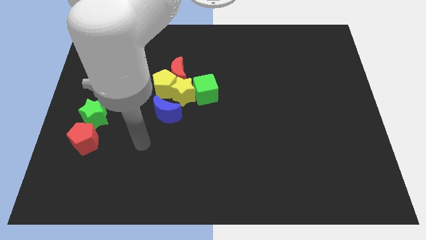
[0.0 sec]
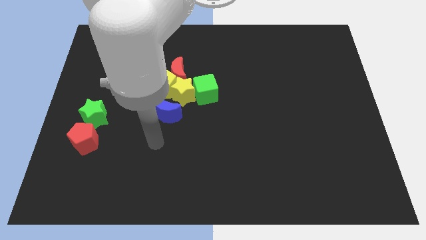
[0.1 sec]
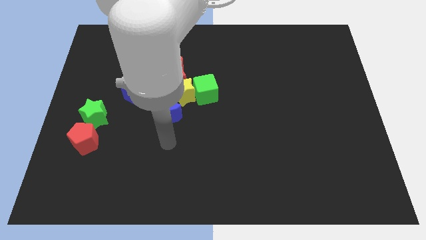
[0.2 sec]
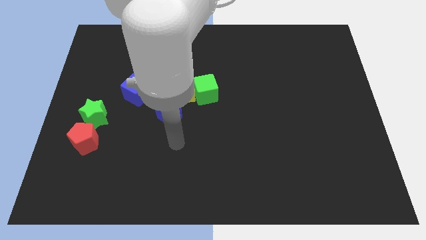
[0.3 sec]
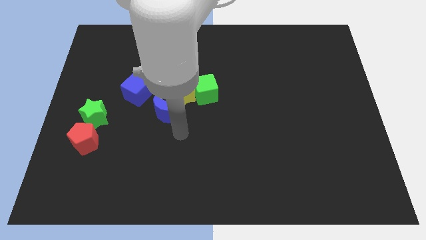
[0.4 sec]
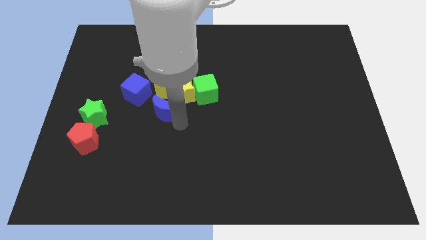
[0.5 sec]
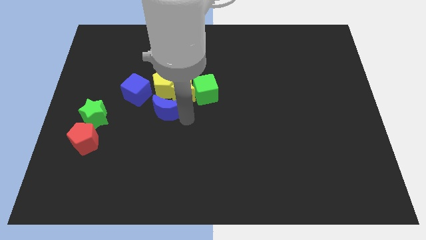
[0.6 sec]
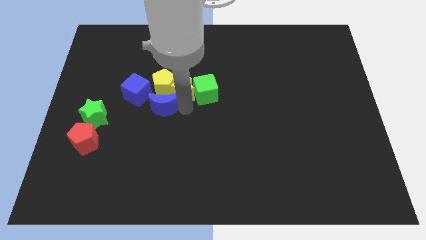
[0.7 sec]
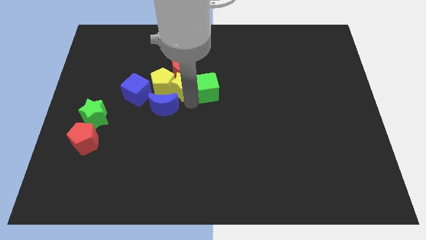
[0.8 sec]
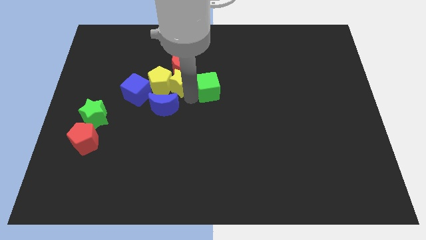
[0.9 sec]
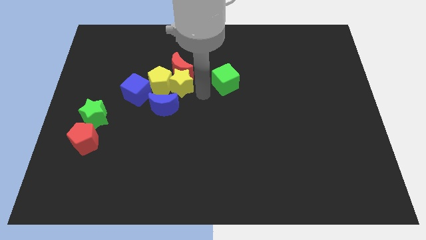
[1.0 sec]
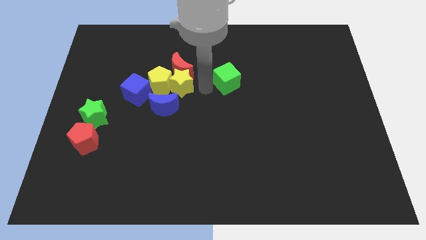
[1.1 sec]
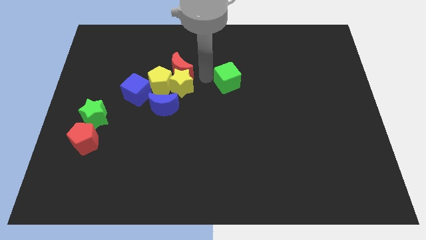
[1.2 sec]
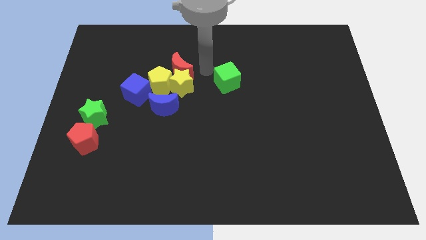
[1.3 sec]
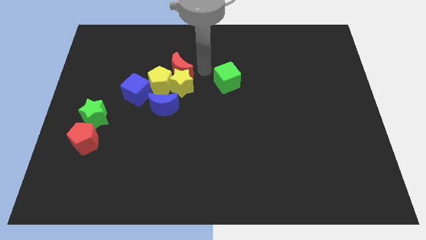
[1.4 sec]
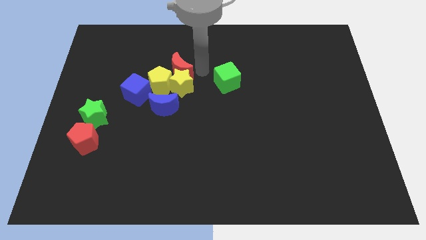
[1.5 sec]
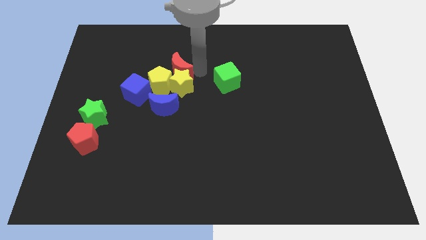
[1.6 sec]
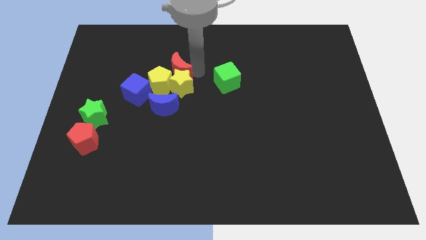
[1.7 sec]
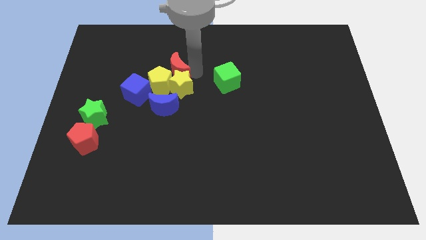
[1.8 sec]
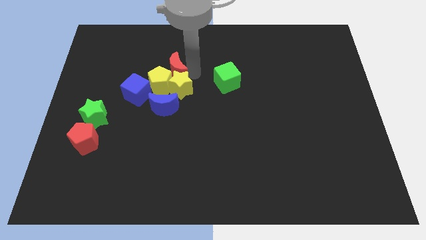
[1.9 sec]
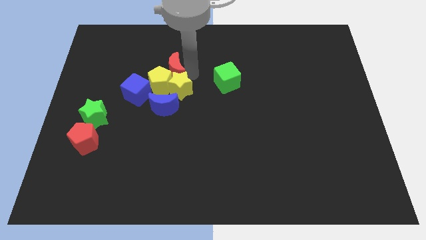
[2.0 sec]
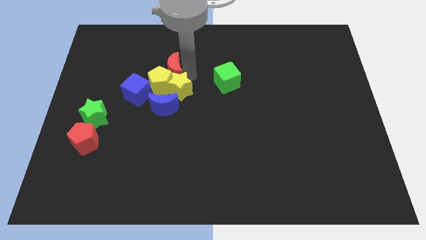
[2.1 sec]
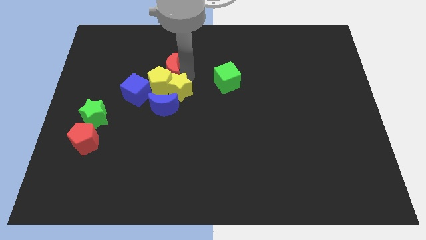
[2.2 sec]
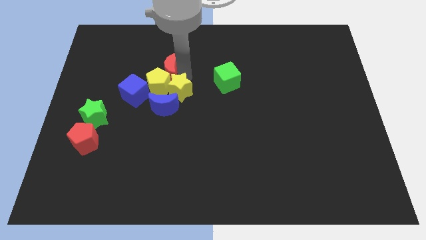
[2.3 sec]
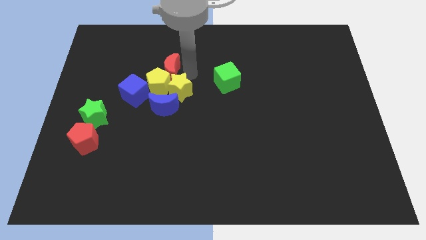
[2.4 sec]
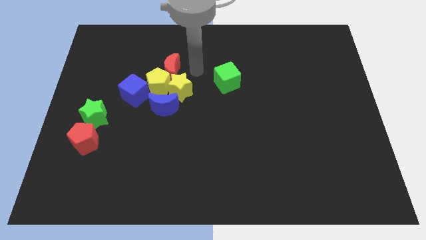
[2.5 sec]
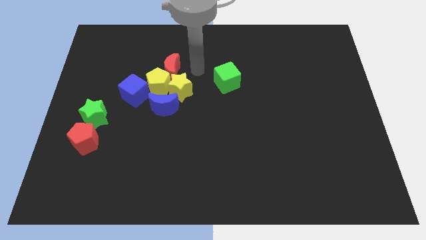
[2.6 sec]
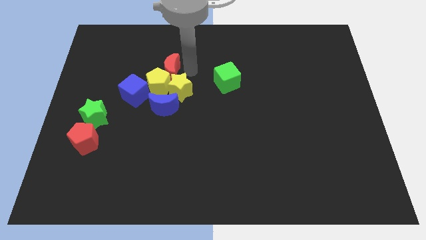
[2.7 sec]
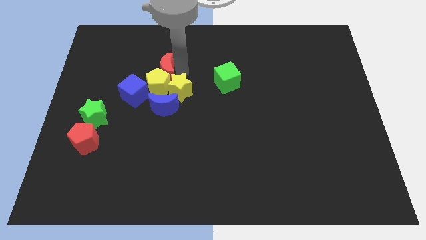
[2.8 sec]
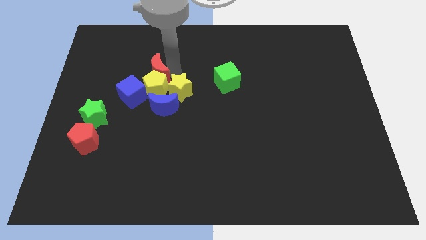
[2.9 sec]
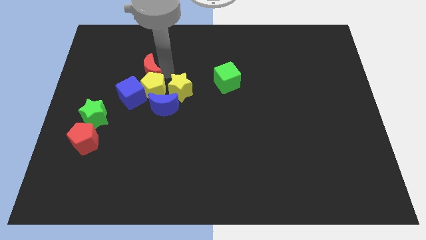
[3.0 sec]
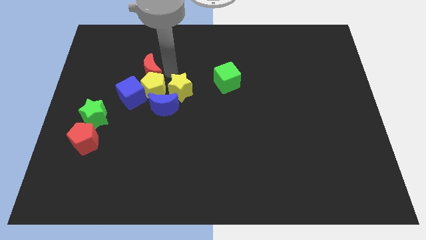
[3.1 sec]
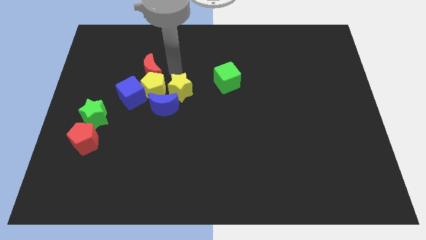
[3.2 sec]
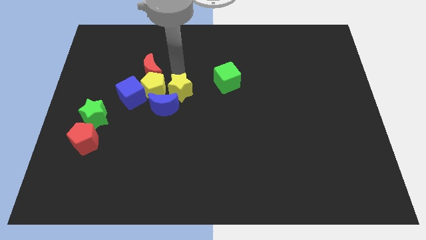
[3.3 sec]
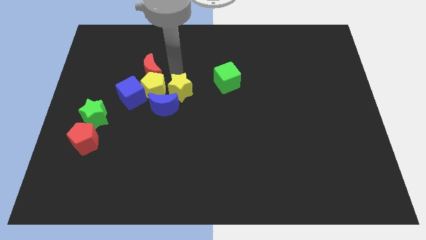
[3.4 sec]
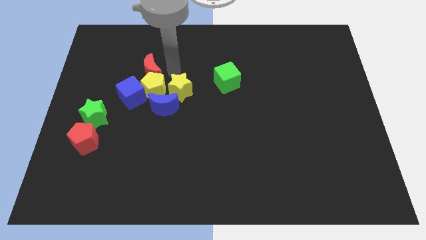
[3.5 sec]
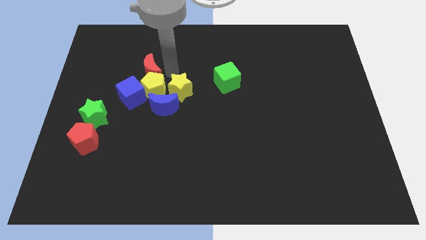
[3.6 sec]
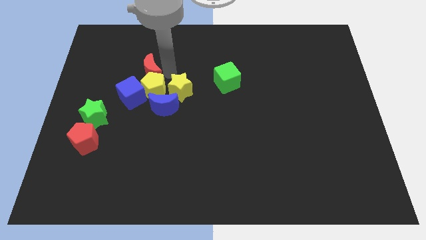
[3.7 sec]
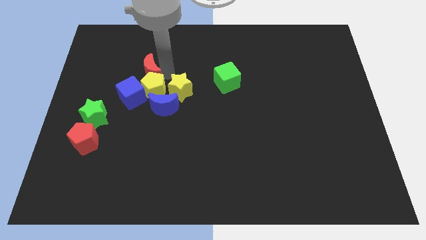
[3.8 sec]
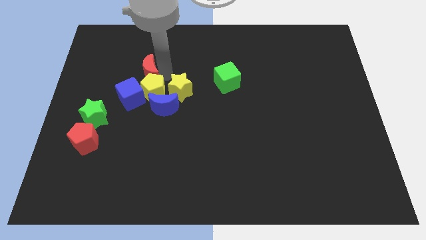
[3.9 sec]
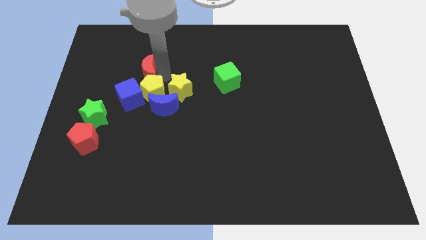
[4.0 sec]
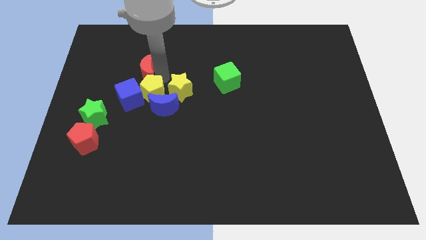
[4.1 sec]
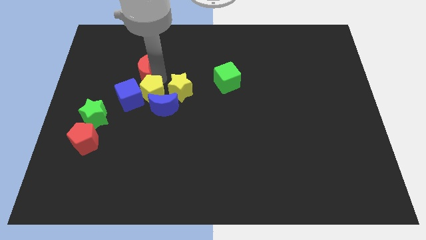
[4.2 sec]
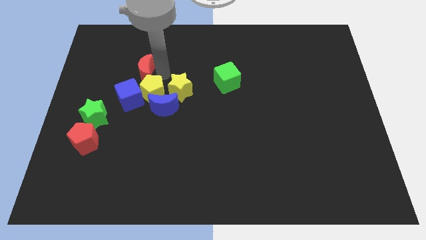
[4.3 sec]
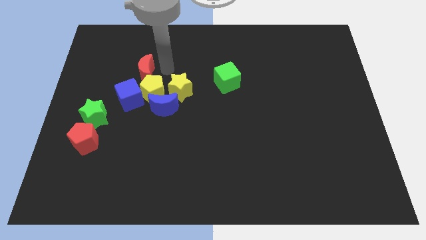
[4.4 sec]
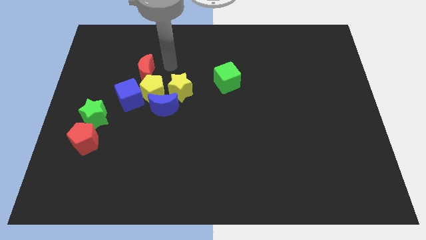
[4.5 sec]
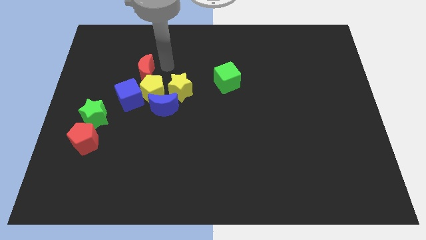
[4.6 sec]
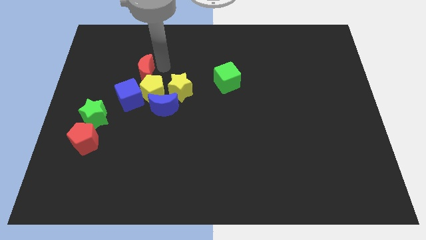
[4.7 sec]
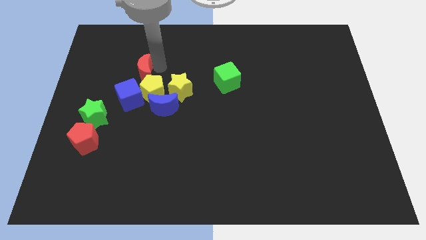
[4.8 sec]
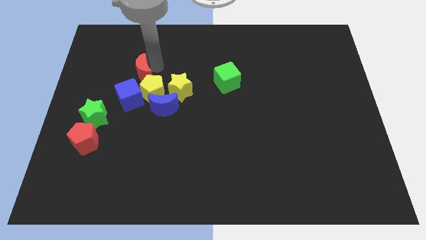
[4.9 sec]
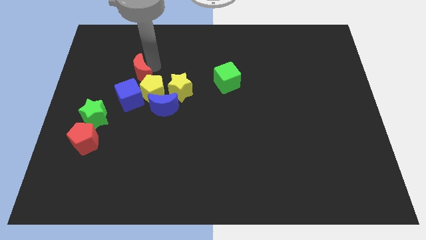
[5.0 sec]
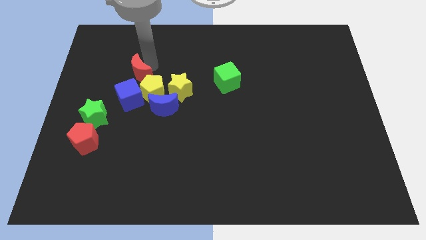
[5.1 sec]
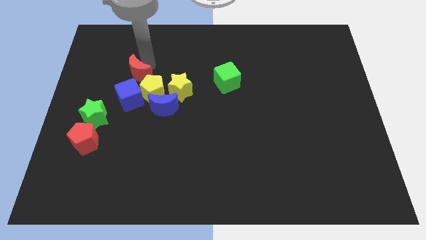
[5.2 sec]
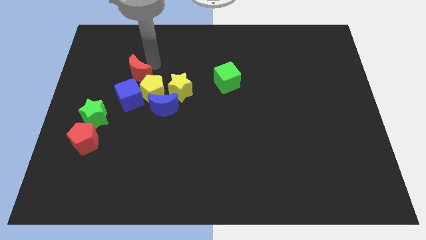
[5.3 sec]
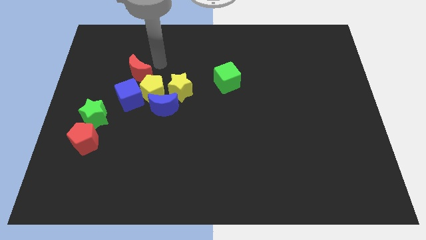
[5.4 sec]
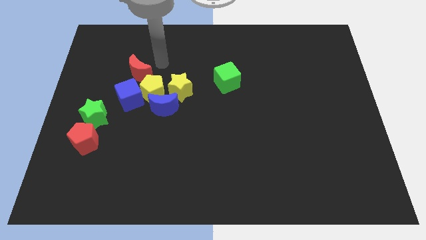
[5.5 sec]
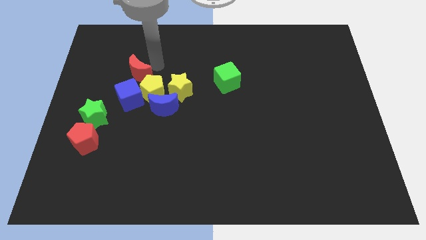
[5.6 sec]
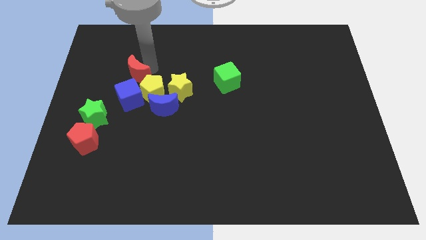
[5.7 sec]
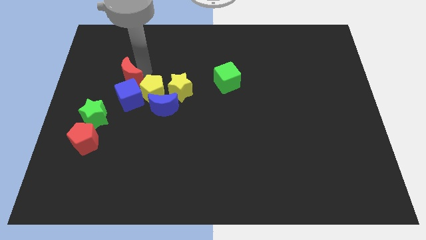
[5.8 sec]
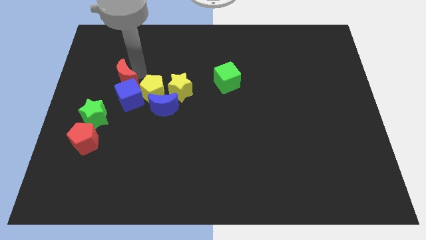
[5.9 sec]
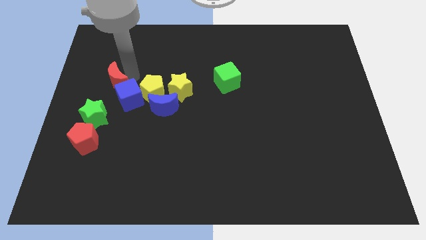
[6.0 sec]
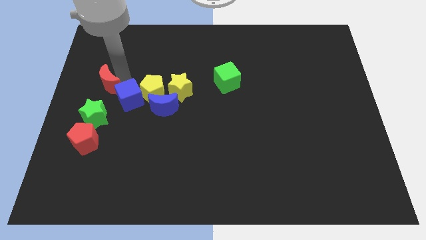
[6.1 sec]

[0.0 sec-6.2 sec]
move the red moon to the left side of the blue cube

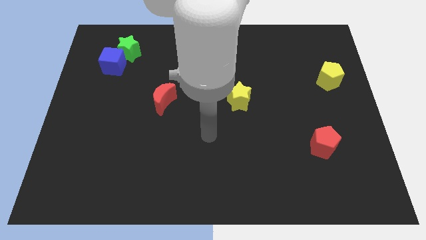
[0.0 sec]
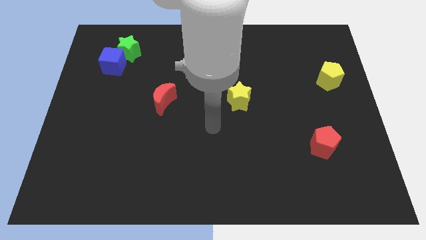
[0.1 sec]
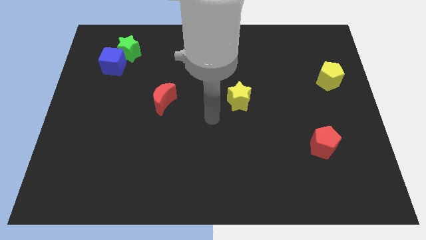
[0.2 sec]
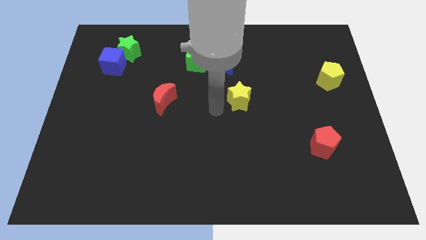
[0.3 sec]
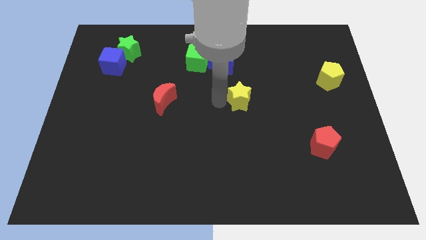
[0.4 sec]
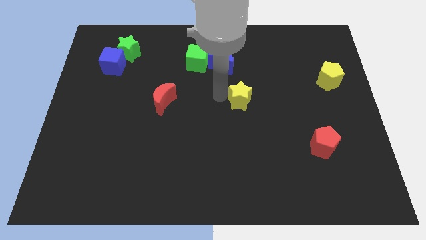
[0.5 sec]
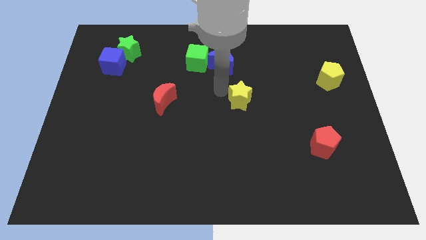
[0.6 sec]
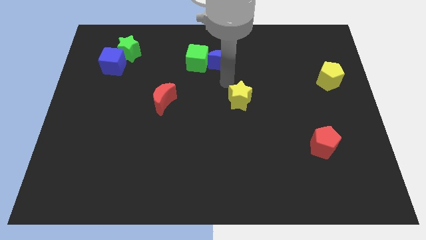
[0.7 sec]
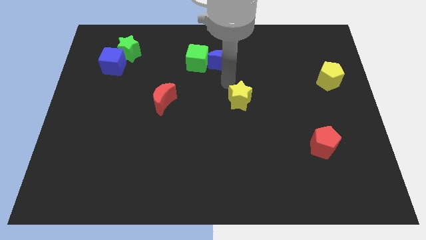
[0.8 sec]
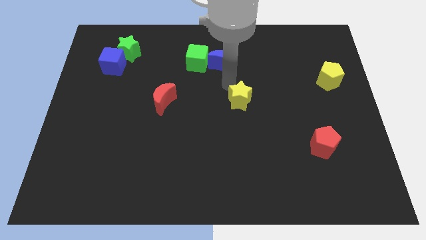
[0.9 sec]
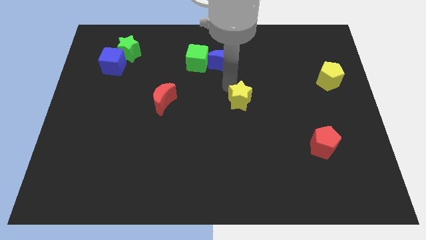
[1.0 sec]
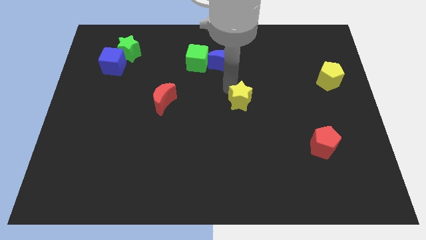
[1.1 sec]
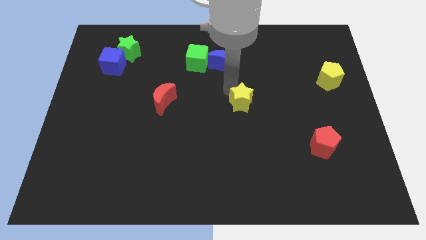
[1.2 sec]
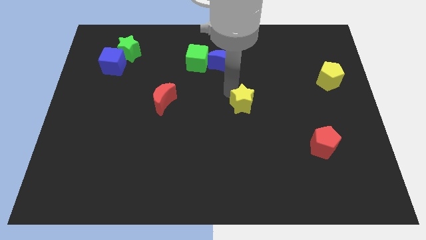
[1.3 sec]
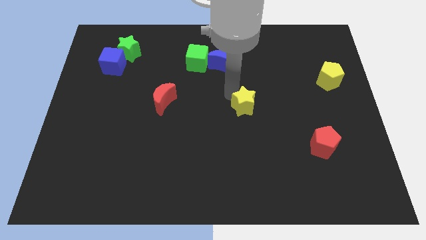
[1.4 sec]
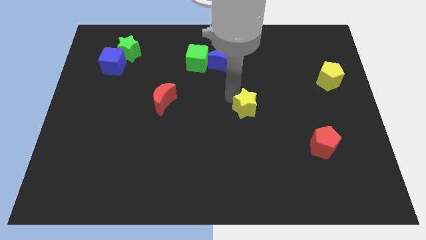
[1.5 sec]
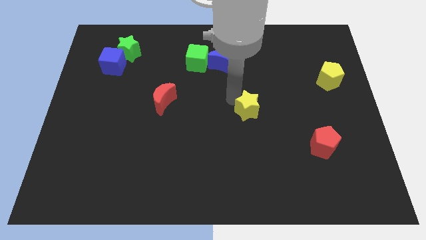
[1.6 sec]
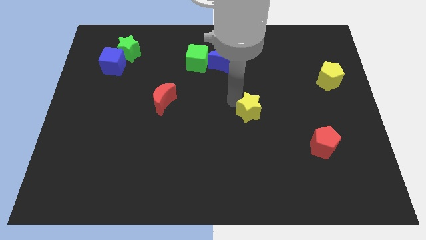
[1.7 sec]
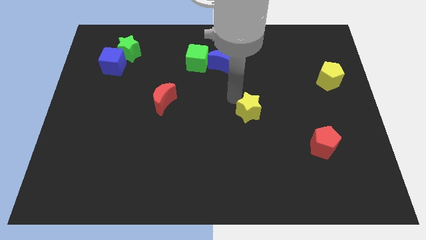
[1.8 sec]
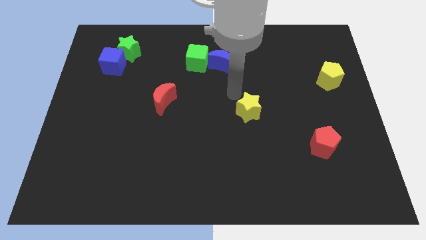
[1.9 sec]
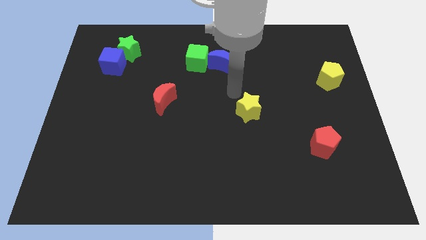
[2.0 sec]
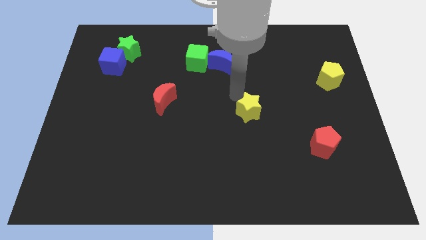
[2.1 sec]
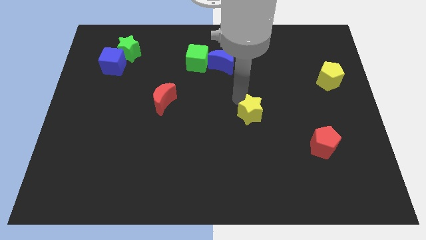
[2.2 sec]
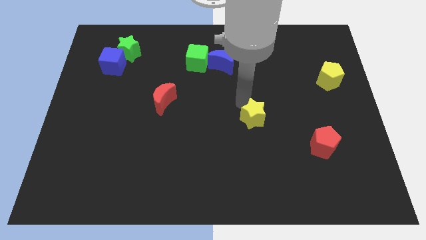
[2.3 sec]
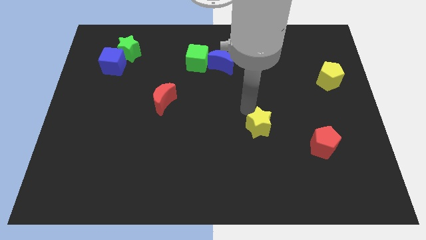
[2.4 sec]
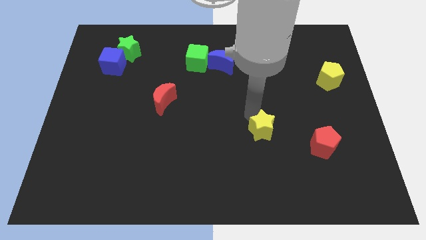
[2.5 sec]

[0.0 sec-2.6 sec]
put the yellow star to the left side of the red pentagon
